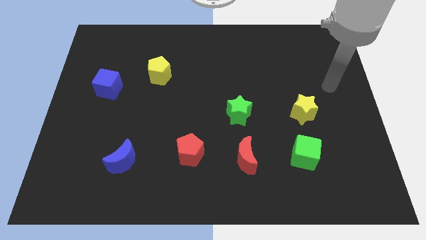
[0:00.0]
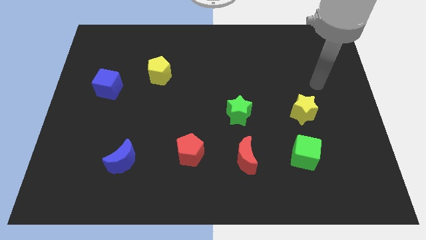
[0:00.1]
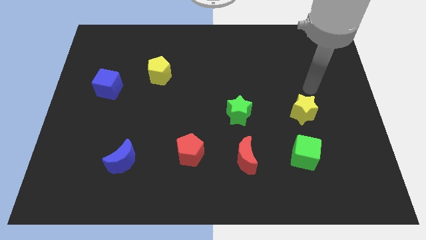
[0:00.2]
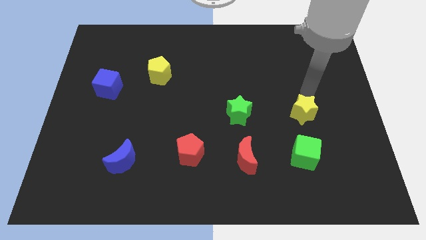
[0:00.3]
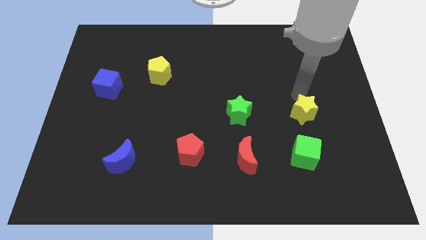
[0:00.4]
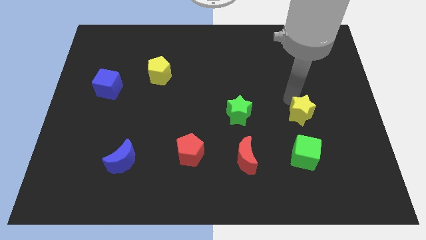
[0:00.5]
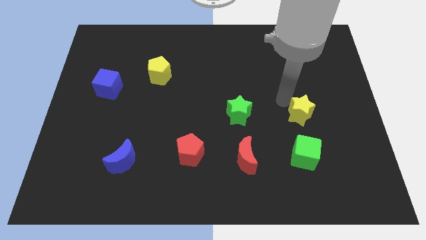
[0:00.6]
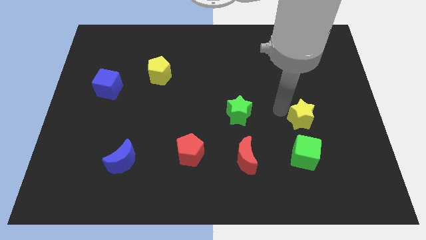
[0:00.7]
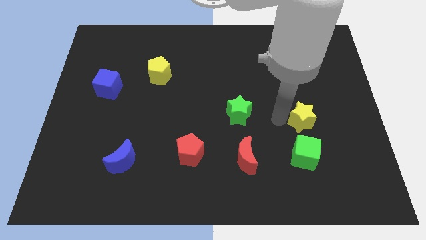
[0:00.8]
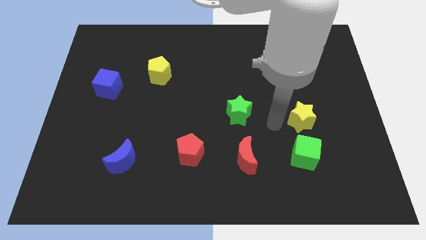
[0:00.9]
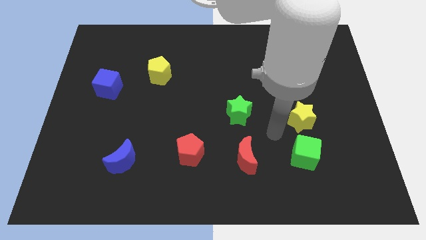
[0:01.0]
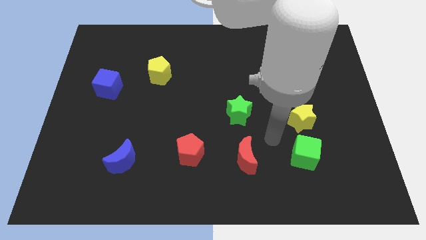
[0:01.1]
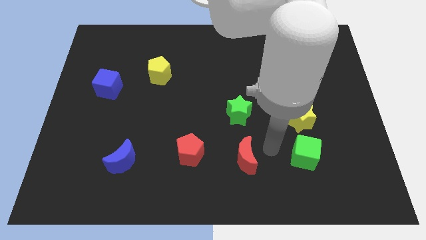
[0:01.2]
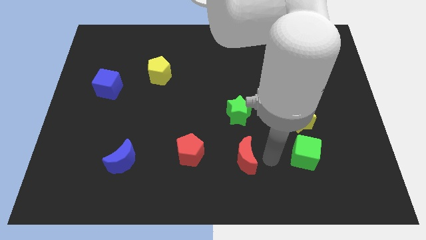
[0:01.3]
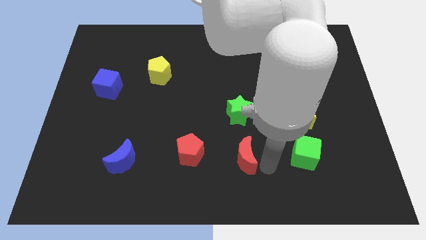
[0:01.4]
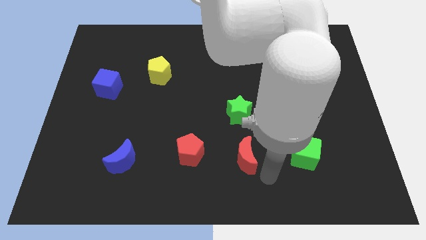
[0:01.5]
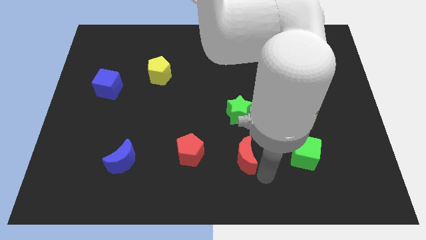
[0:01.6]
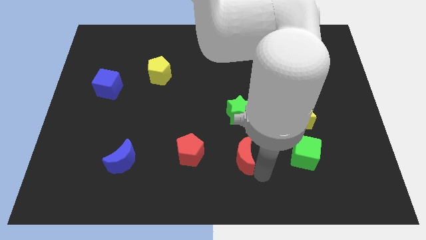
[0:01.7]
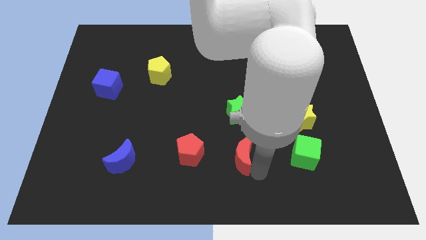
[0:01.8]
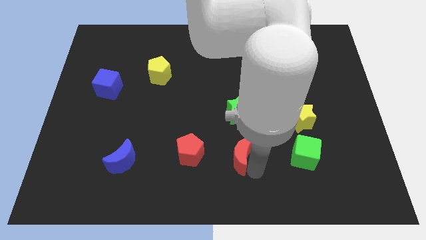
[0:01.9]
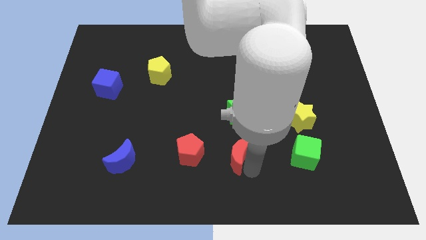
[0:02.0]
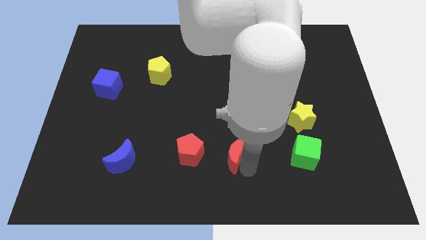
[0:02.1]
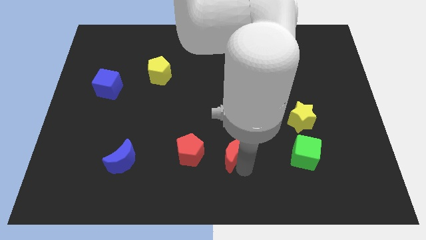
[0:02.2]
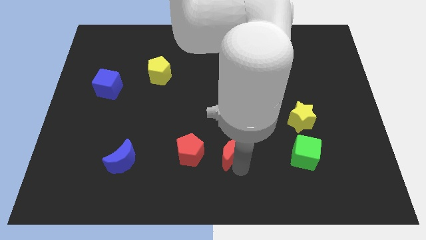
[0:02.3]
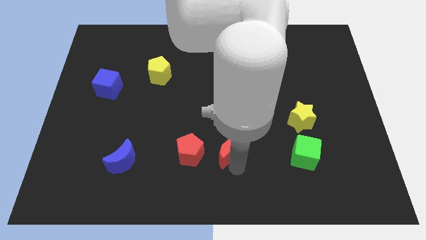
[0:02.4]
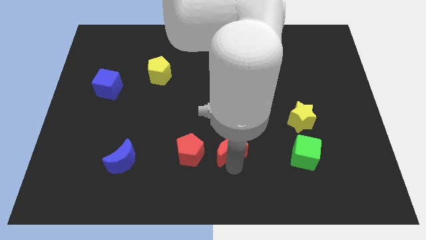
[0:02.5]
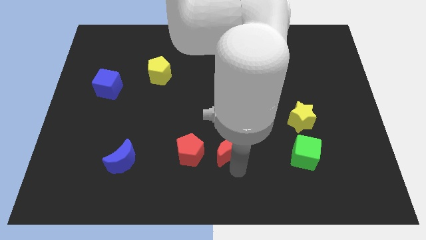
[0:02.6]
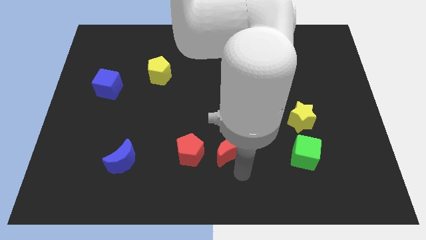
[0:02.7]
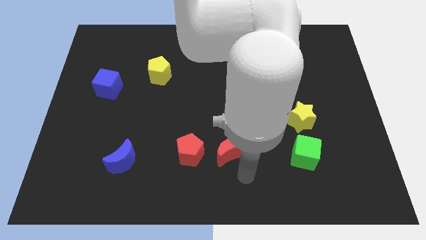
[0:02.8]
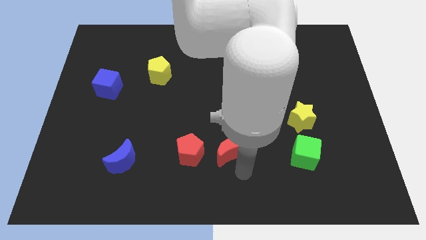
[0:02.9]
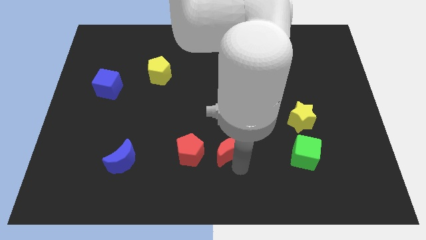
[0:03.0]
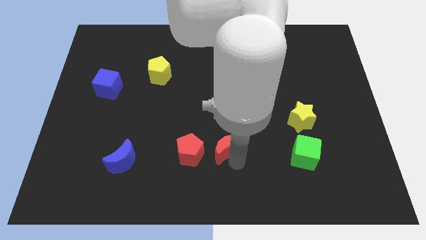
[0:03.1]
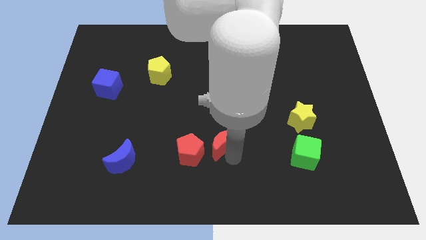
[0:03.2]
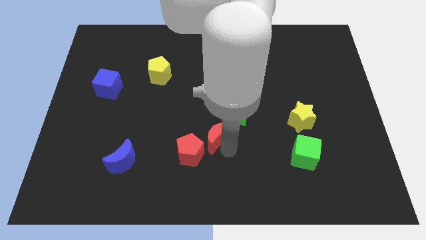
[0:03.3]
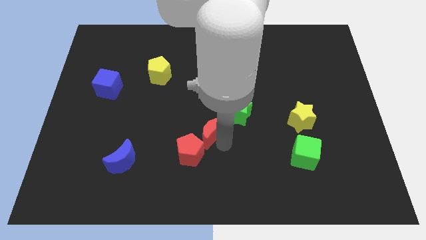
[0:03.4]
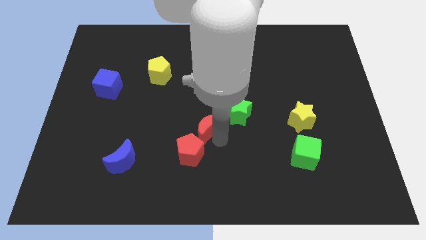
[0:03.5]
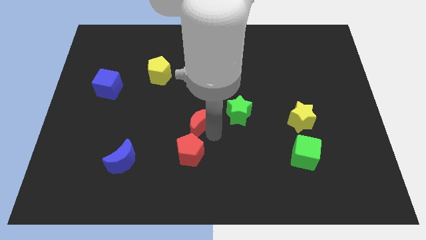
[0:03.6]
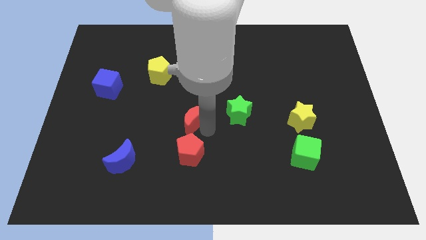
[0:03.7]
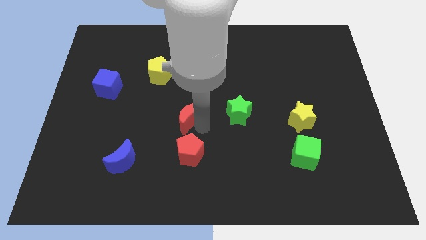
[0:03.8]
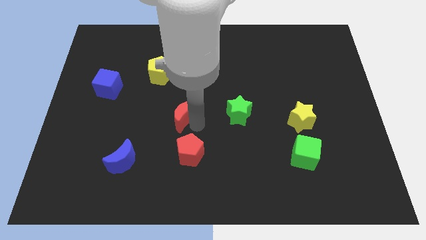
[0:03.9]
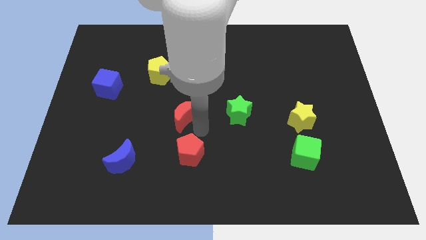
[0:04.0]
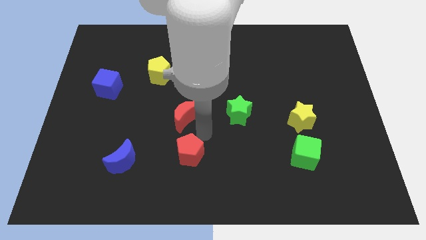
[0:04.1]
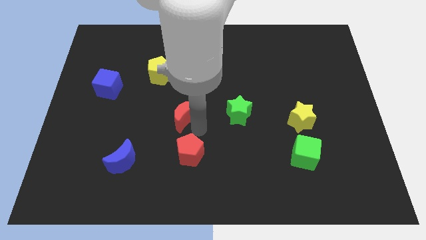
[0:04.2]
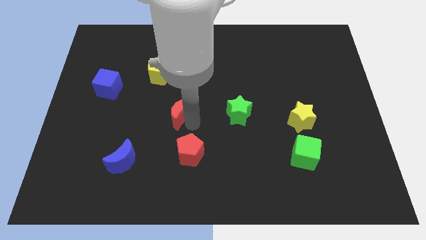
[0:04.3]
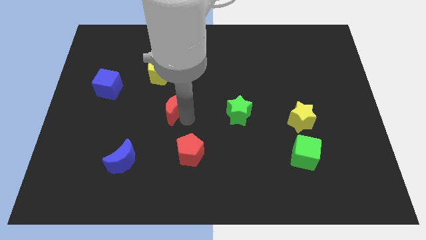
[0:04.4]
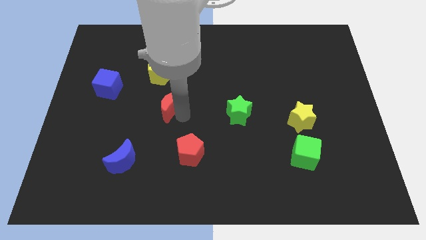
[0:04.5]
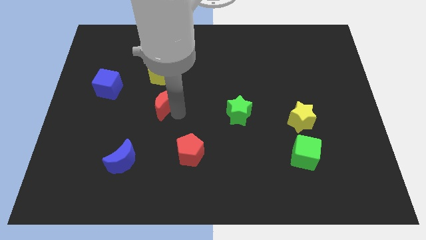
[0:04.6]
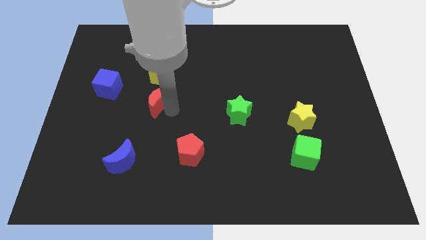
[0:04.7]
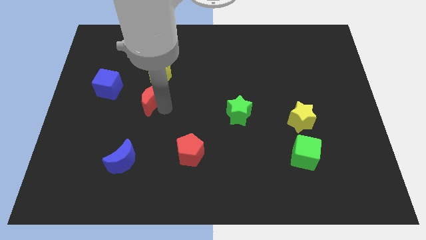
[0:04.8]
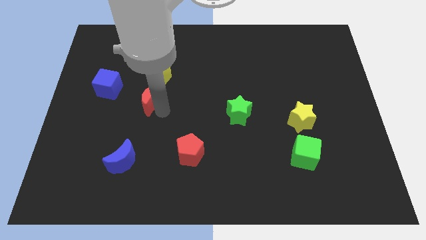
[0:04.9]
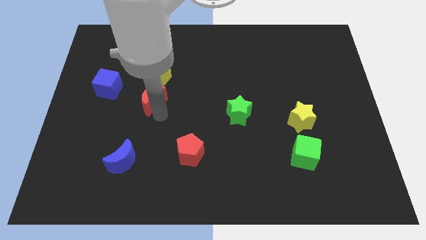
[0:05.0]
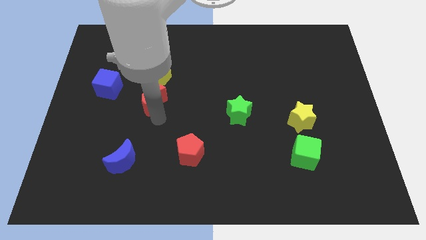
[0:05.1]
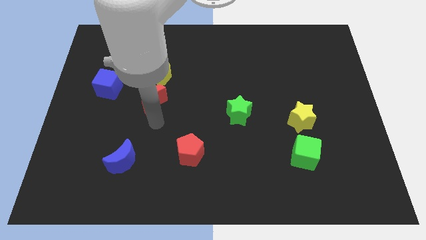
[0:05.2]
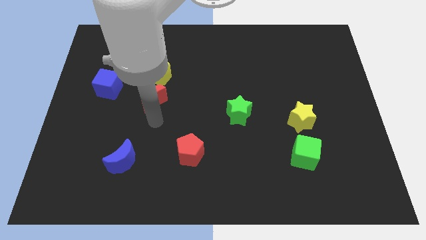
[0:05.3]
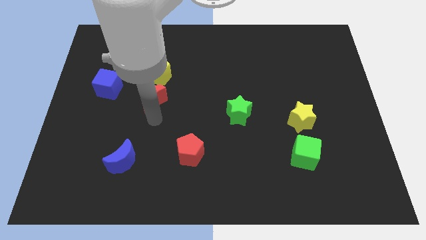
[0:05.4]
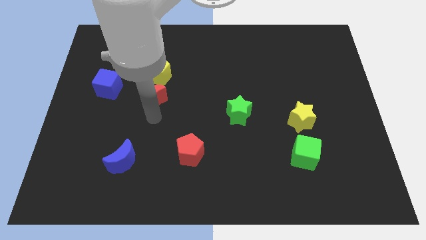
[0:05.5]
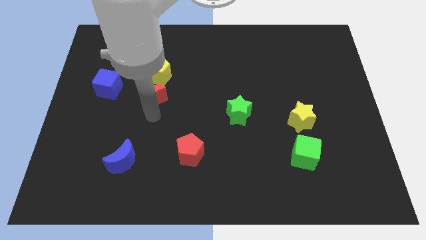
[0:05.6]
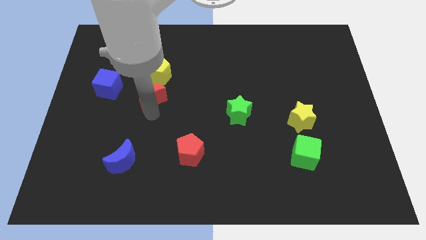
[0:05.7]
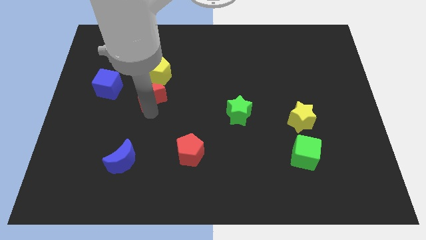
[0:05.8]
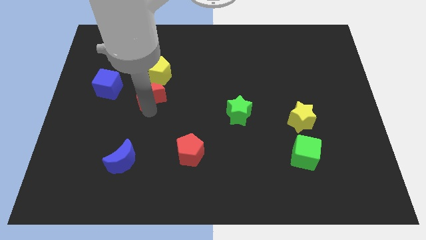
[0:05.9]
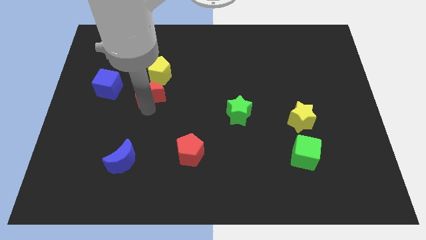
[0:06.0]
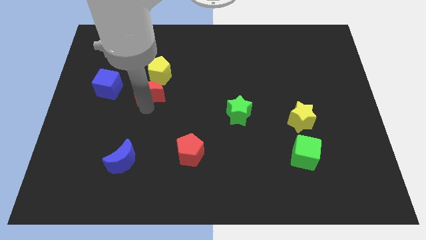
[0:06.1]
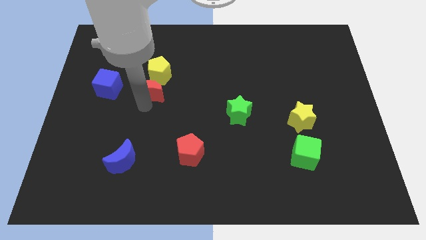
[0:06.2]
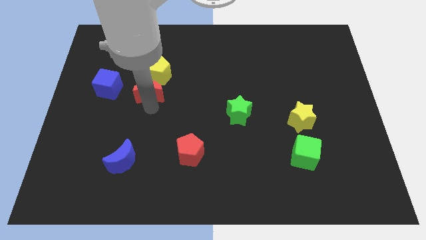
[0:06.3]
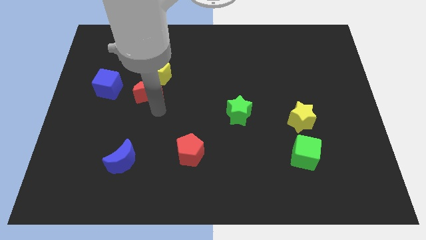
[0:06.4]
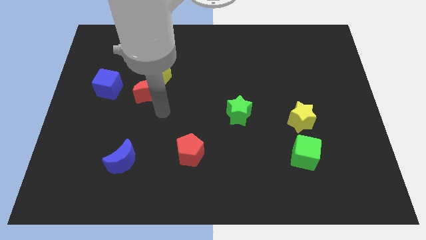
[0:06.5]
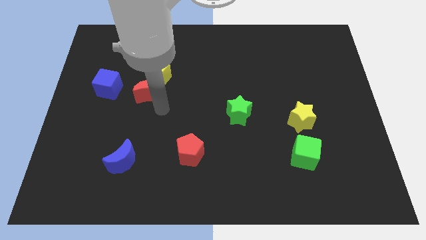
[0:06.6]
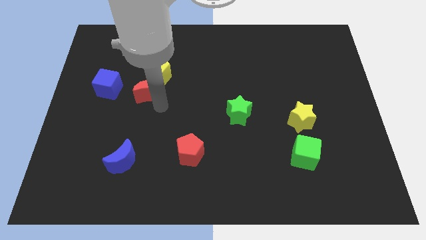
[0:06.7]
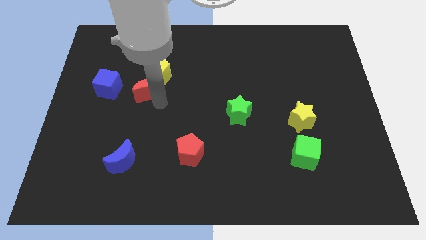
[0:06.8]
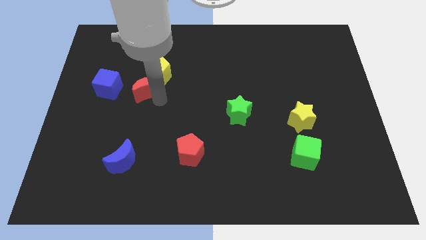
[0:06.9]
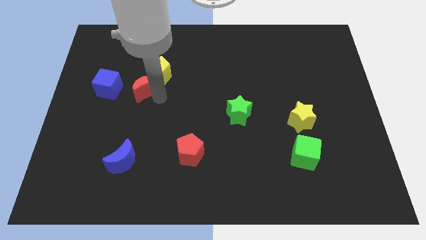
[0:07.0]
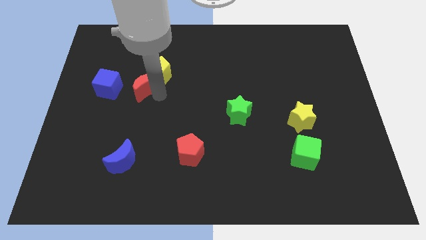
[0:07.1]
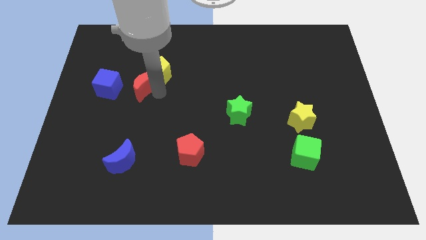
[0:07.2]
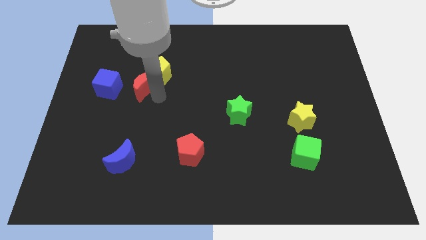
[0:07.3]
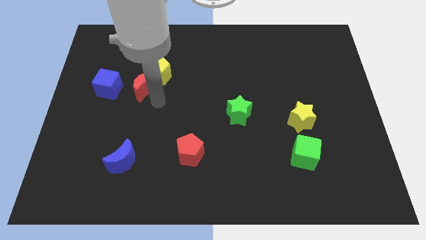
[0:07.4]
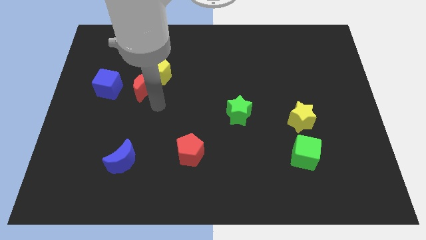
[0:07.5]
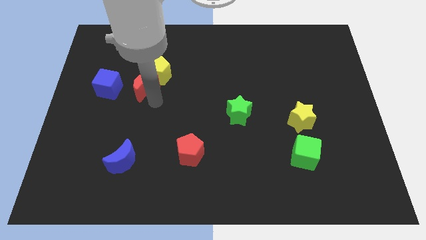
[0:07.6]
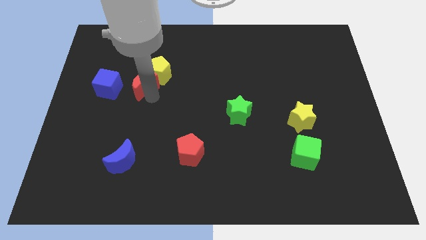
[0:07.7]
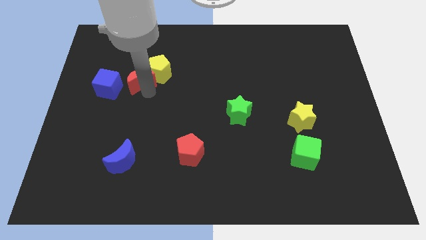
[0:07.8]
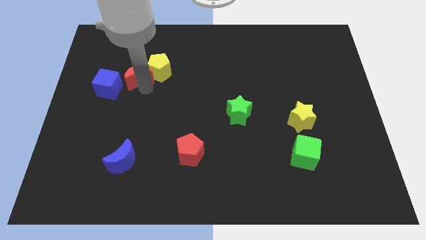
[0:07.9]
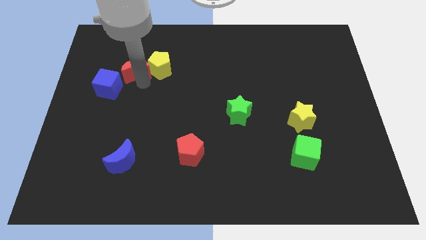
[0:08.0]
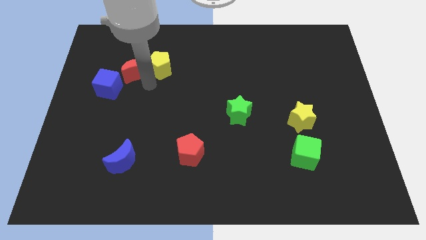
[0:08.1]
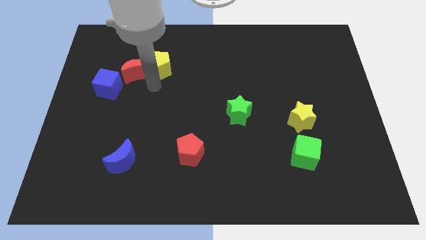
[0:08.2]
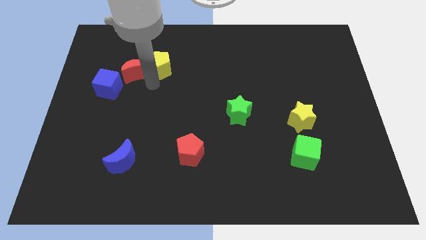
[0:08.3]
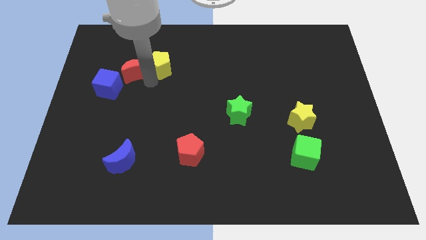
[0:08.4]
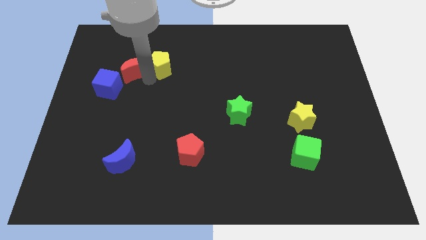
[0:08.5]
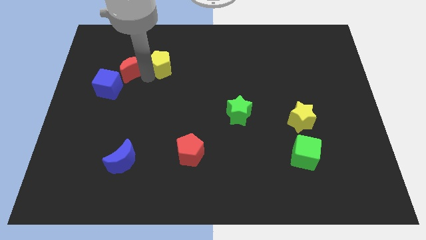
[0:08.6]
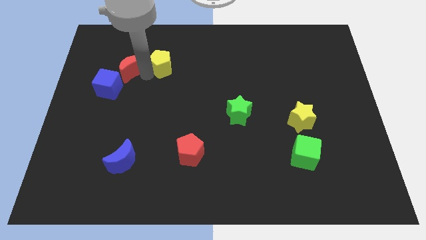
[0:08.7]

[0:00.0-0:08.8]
move the red moon above the blue cube
